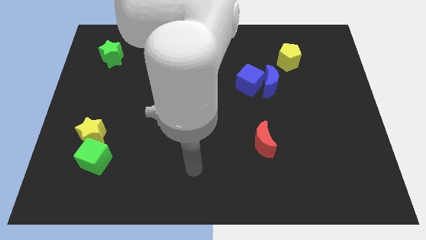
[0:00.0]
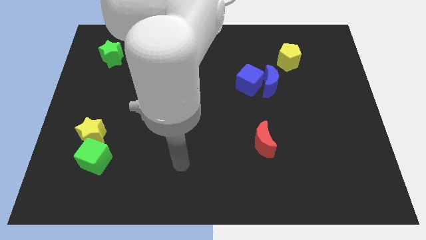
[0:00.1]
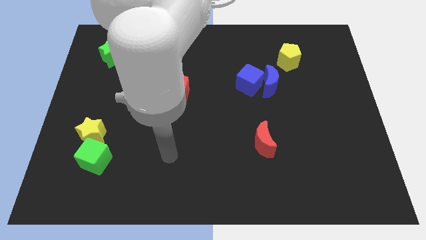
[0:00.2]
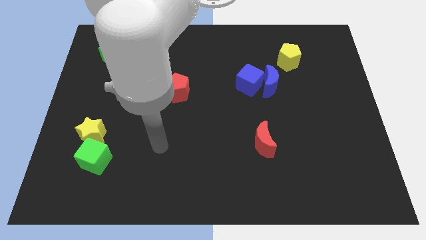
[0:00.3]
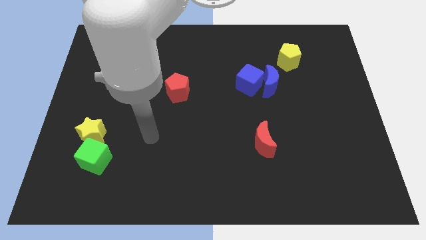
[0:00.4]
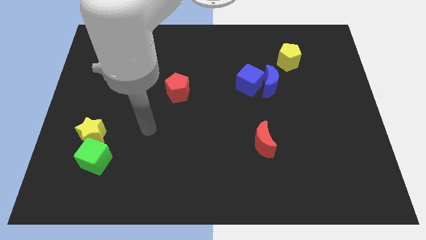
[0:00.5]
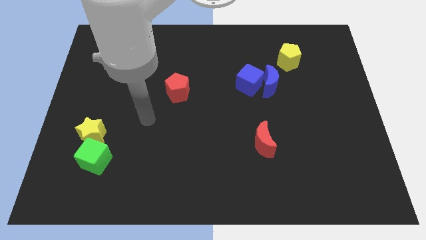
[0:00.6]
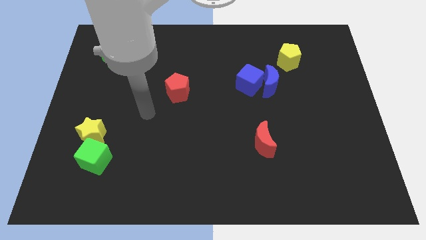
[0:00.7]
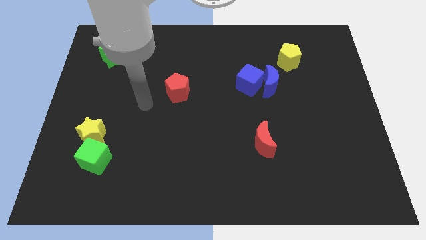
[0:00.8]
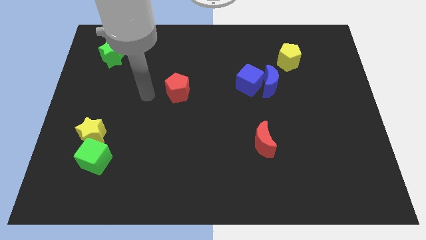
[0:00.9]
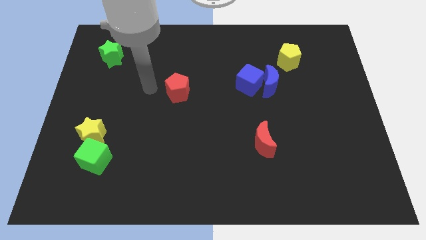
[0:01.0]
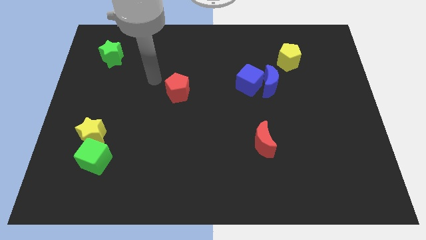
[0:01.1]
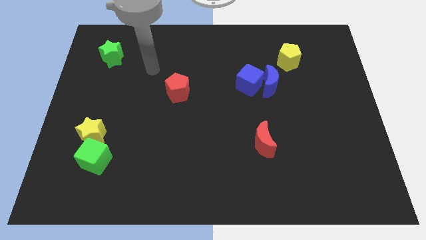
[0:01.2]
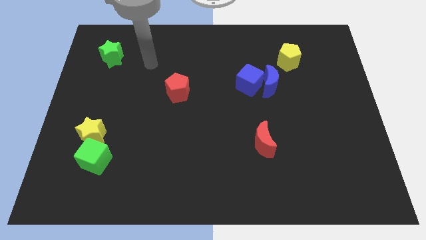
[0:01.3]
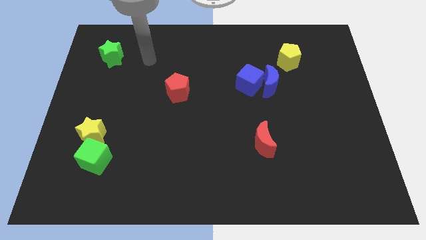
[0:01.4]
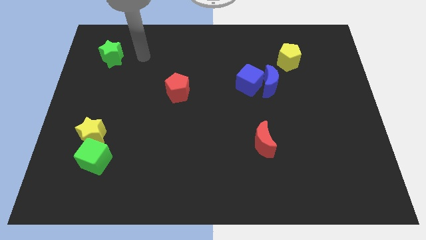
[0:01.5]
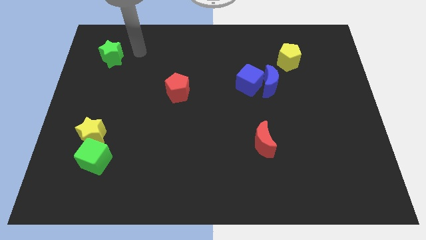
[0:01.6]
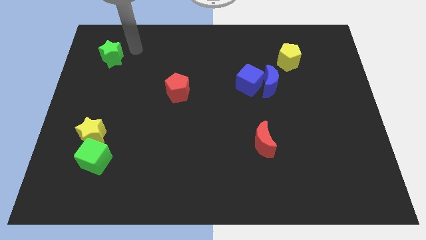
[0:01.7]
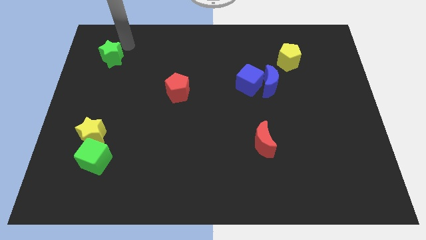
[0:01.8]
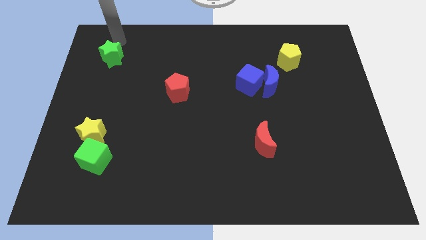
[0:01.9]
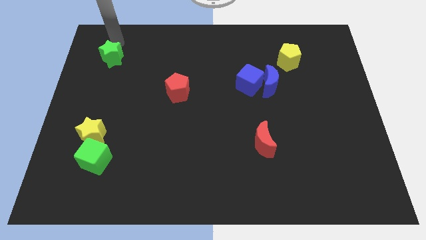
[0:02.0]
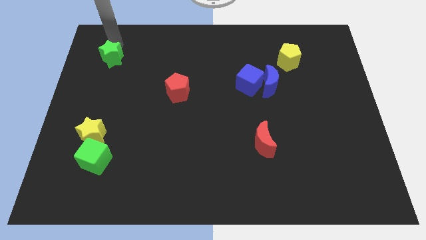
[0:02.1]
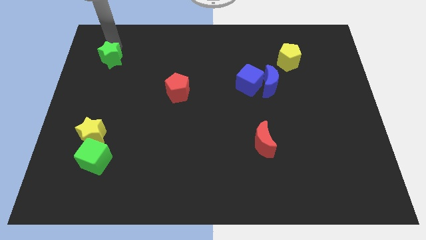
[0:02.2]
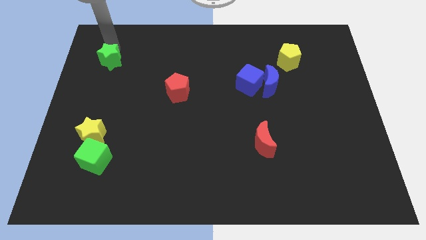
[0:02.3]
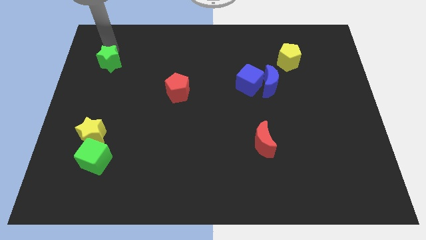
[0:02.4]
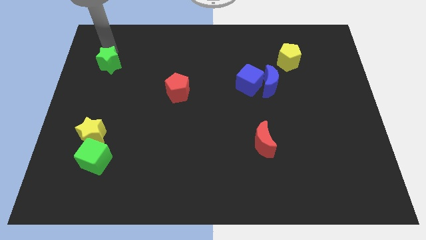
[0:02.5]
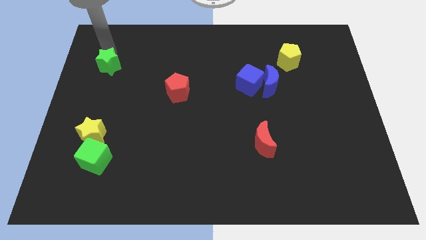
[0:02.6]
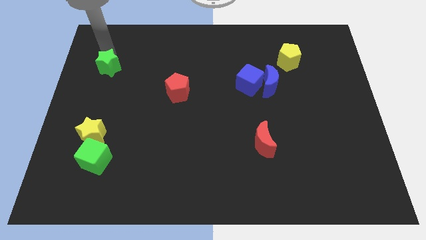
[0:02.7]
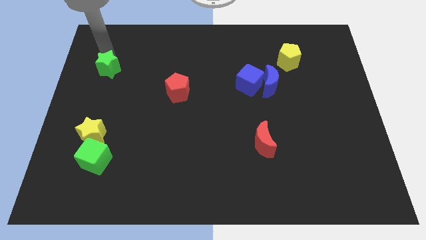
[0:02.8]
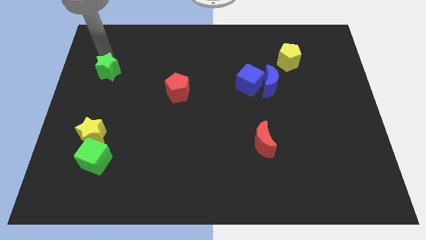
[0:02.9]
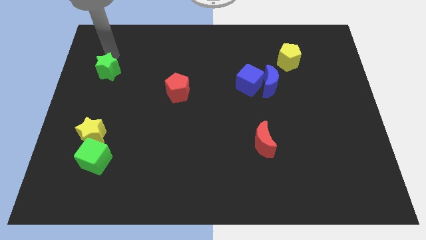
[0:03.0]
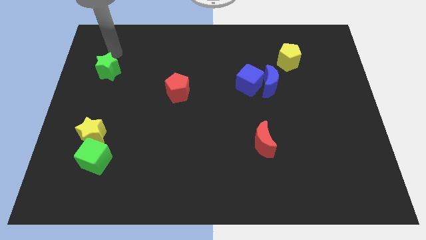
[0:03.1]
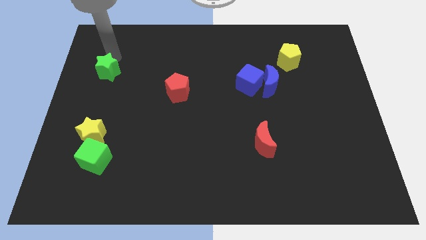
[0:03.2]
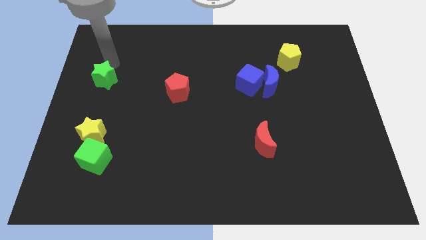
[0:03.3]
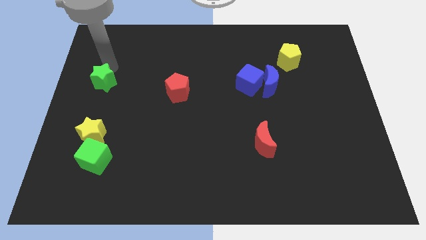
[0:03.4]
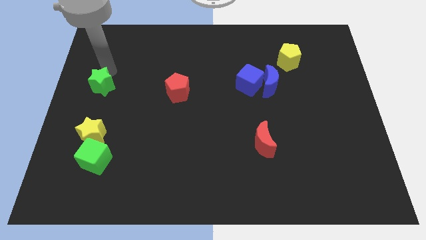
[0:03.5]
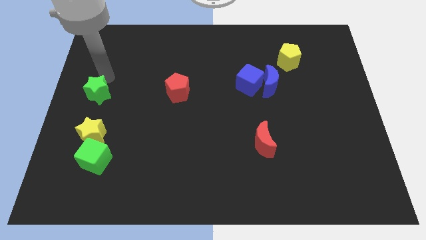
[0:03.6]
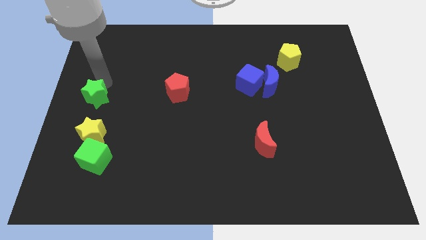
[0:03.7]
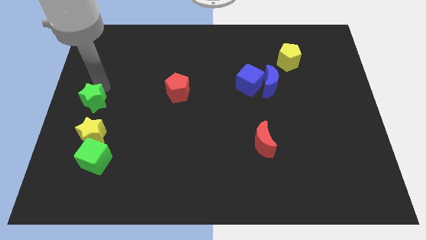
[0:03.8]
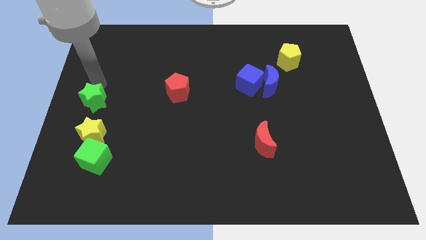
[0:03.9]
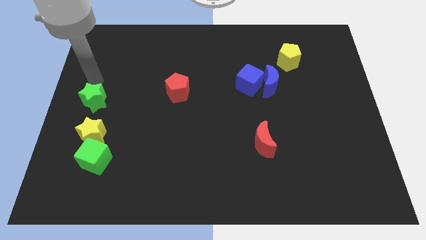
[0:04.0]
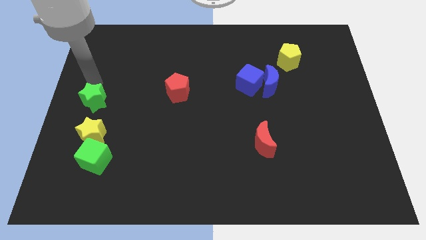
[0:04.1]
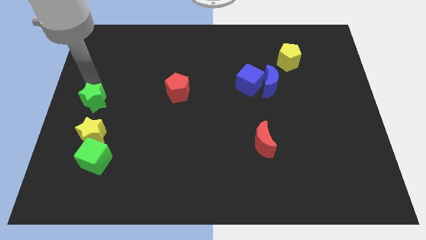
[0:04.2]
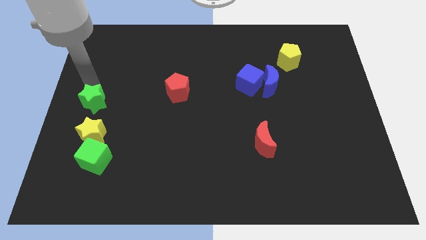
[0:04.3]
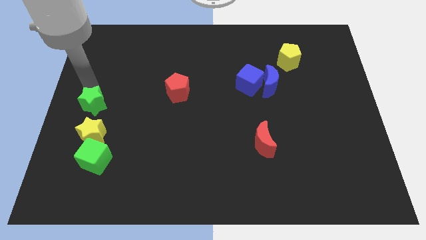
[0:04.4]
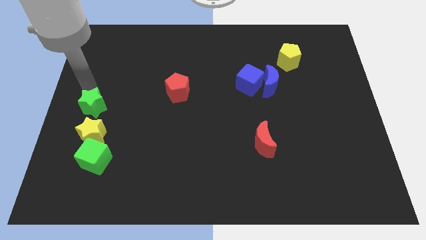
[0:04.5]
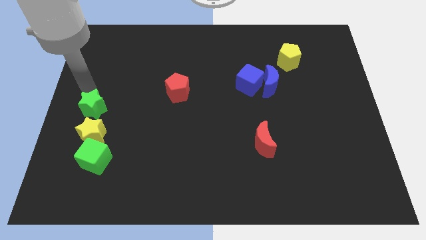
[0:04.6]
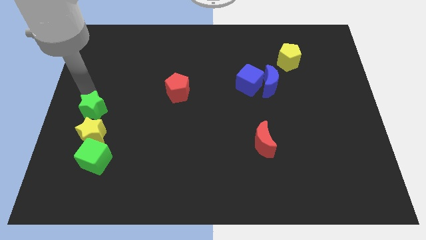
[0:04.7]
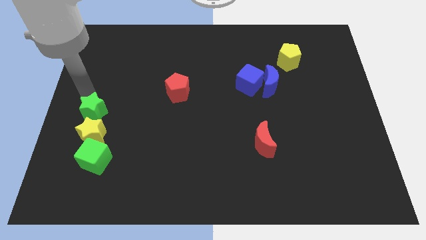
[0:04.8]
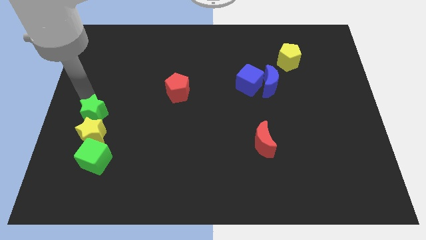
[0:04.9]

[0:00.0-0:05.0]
push the green star close to the yellow star

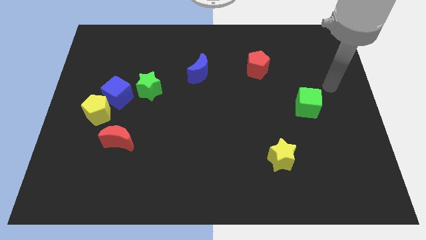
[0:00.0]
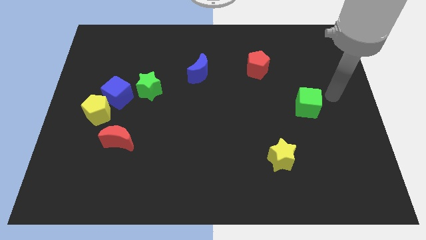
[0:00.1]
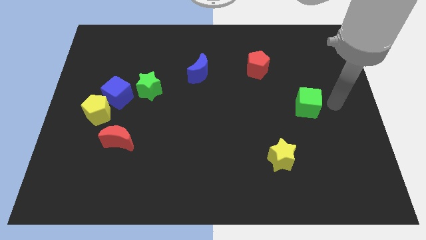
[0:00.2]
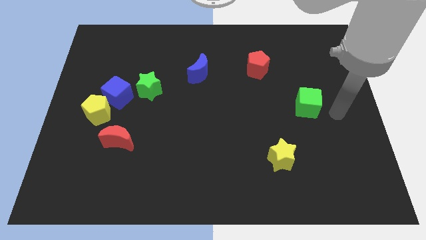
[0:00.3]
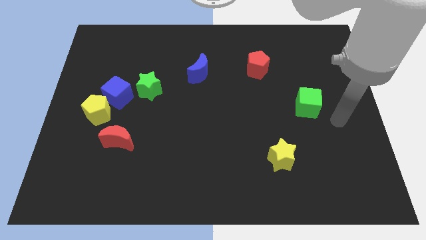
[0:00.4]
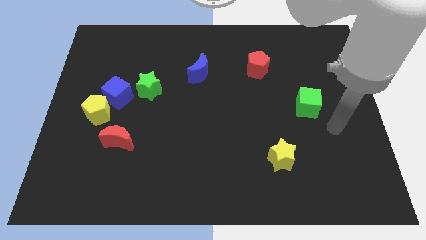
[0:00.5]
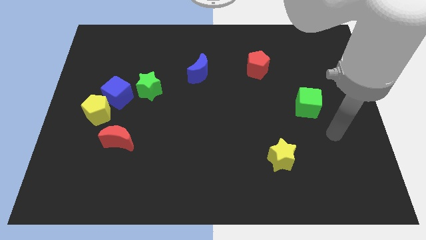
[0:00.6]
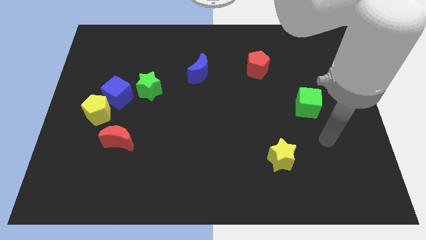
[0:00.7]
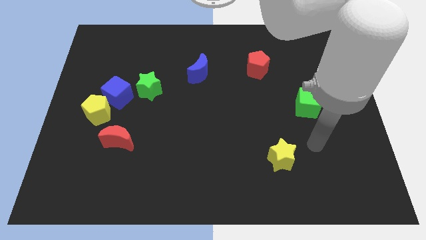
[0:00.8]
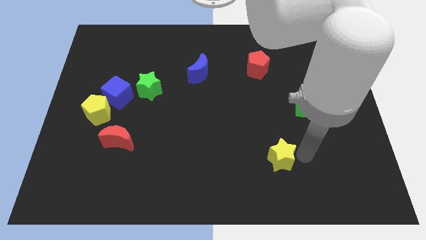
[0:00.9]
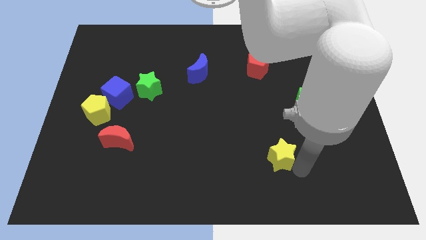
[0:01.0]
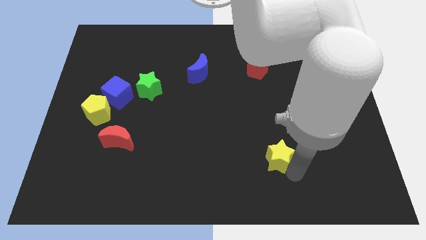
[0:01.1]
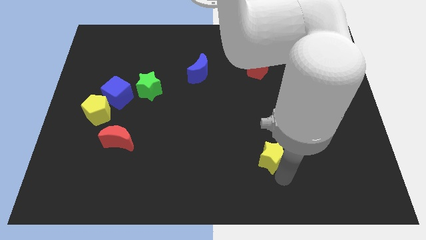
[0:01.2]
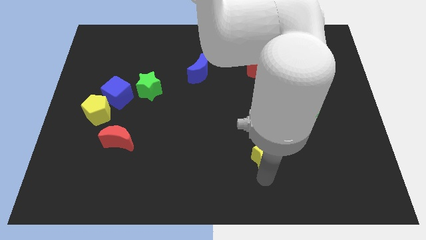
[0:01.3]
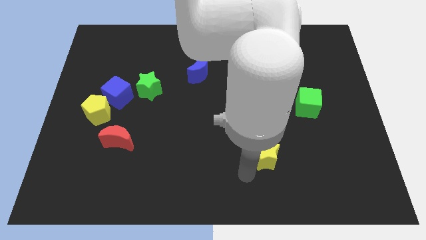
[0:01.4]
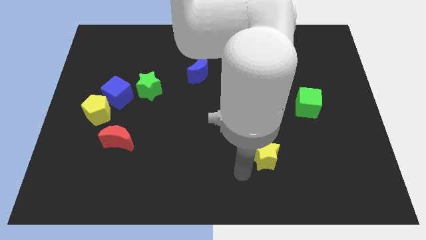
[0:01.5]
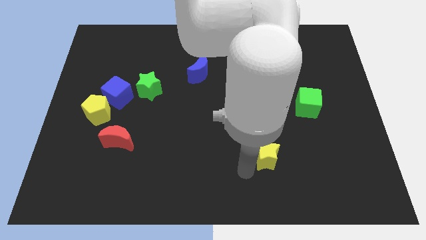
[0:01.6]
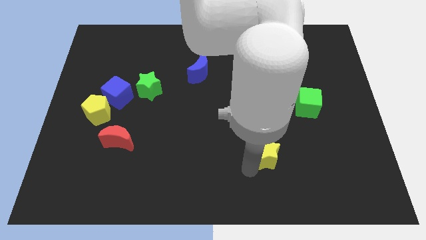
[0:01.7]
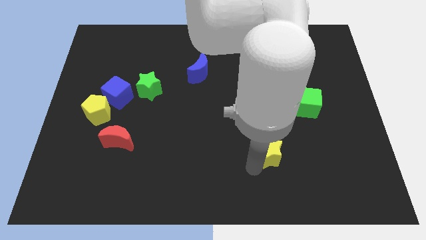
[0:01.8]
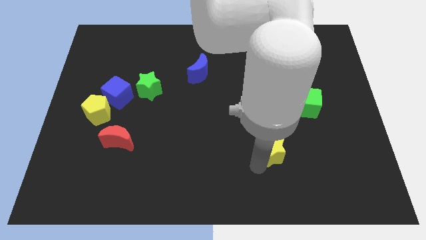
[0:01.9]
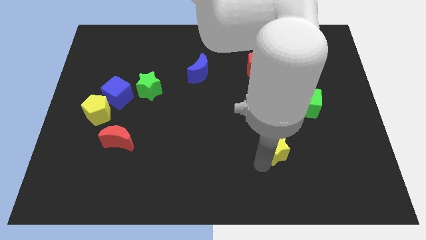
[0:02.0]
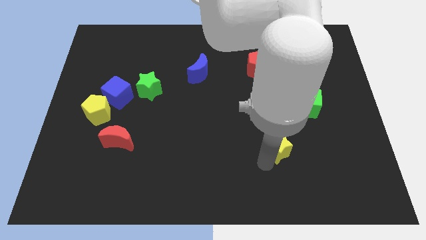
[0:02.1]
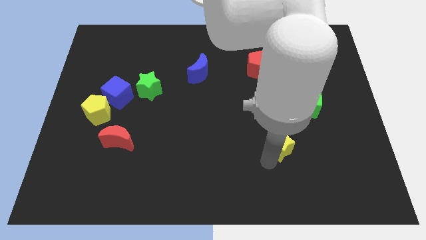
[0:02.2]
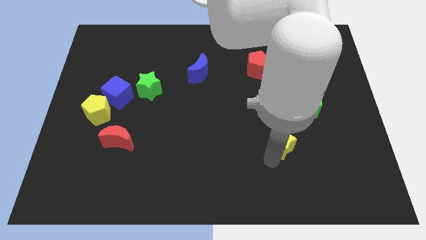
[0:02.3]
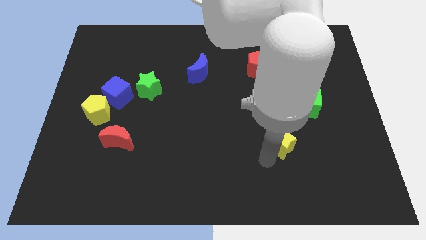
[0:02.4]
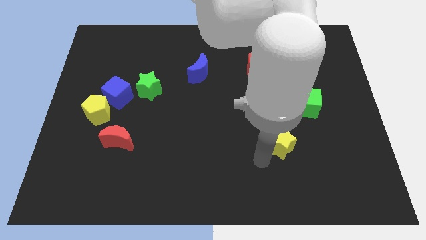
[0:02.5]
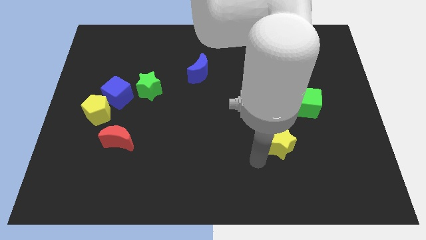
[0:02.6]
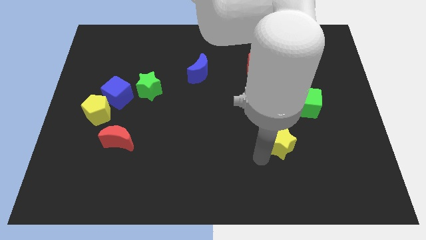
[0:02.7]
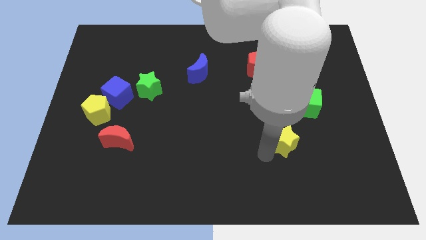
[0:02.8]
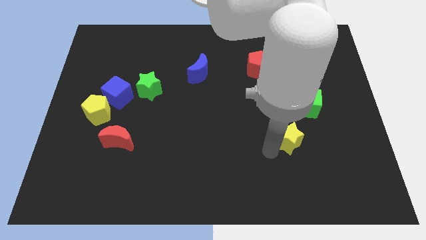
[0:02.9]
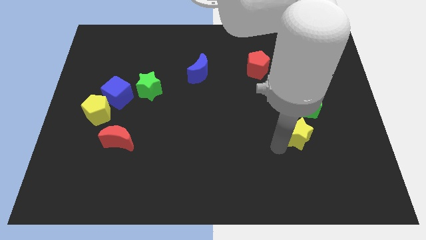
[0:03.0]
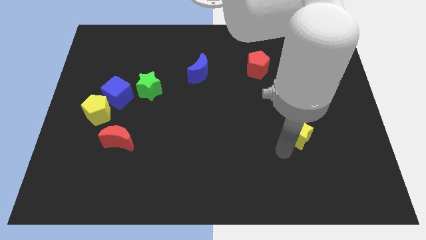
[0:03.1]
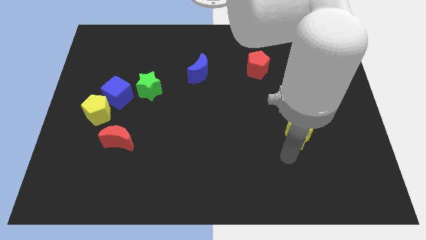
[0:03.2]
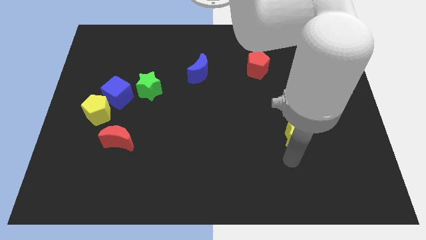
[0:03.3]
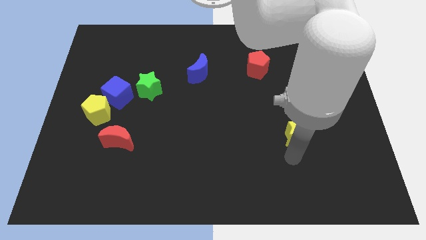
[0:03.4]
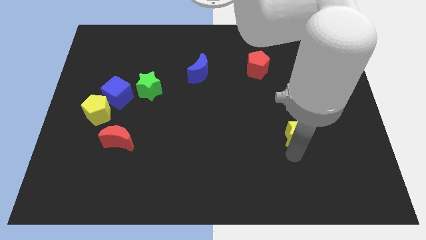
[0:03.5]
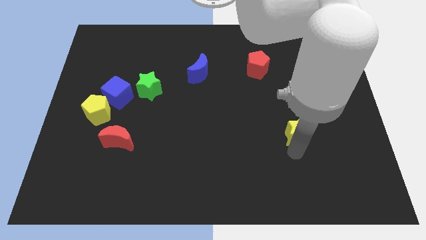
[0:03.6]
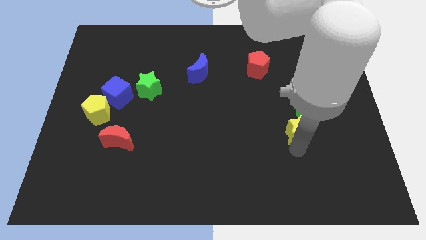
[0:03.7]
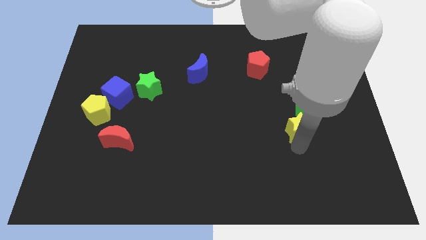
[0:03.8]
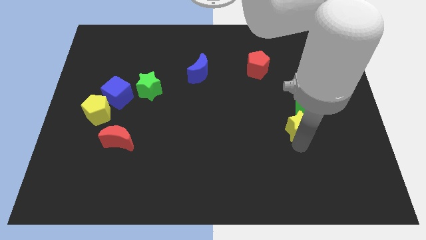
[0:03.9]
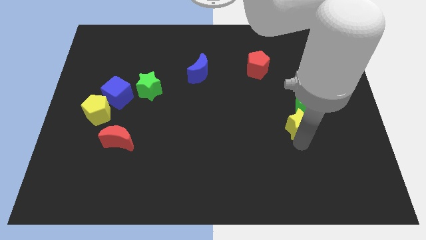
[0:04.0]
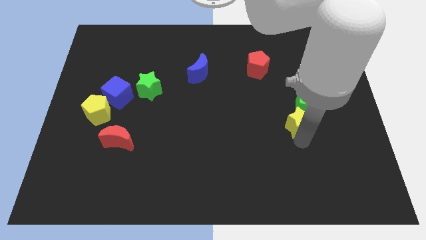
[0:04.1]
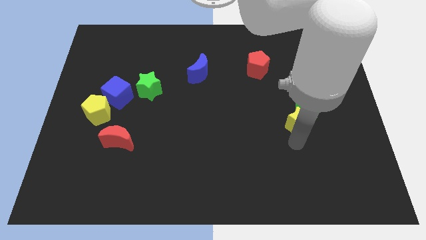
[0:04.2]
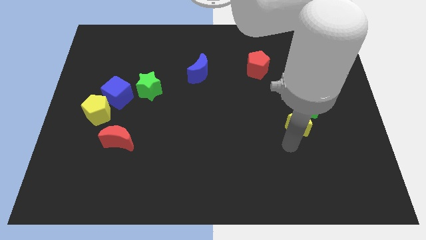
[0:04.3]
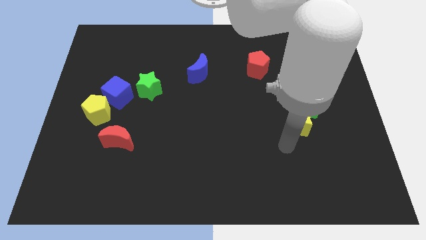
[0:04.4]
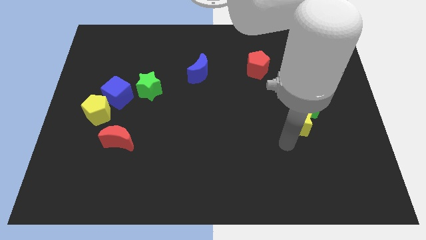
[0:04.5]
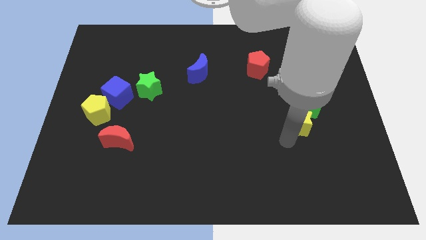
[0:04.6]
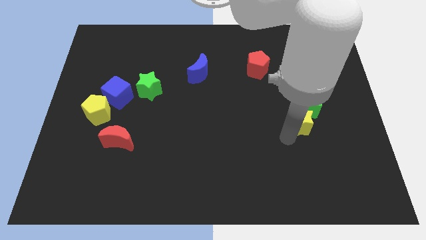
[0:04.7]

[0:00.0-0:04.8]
put the yellow star to the green cube
